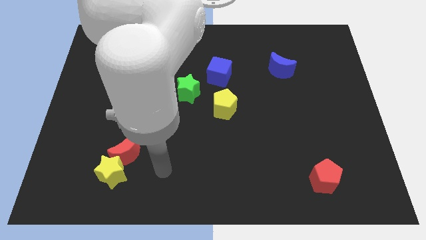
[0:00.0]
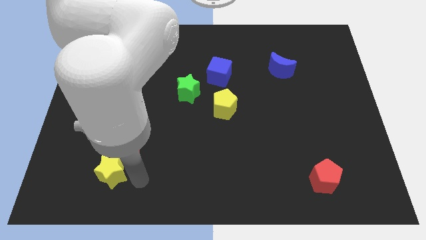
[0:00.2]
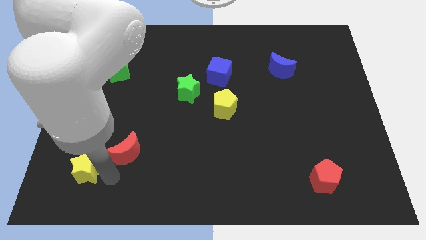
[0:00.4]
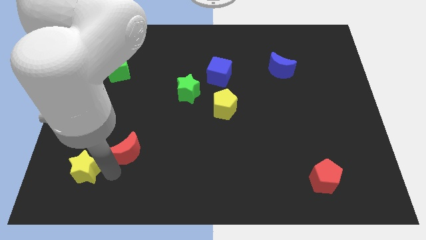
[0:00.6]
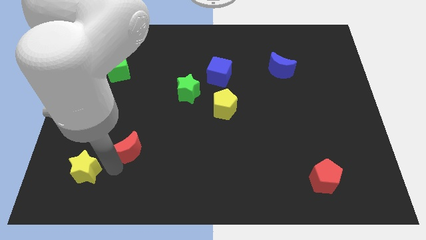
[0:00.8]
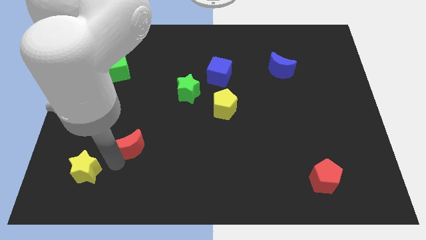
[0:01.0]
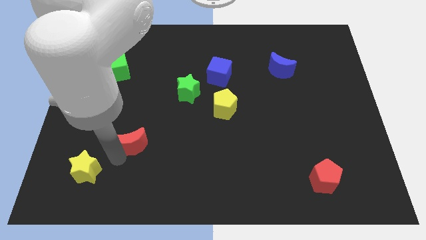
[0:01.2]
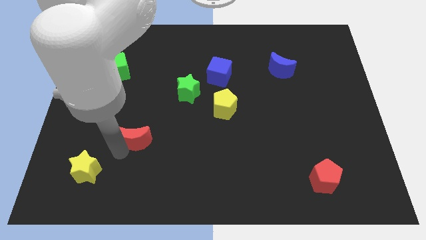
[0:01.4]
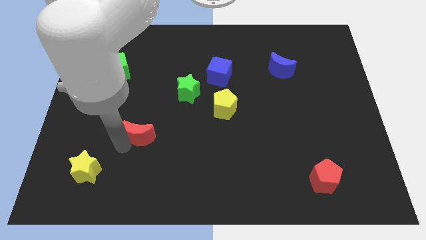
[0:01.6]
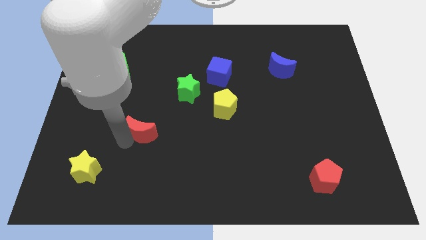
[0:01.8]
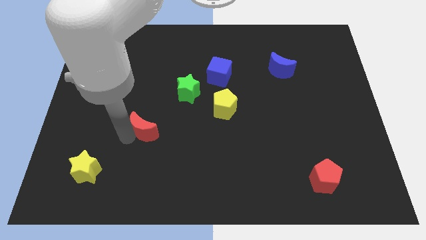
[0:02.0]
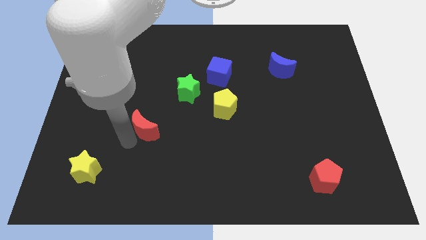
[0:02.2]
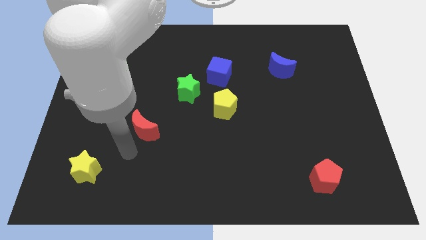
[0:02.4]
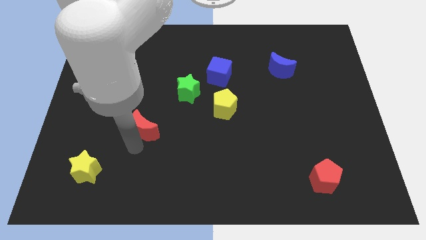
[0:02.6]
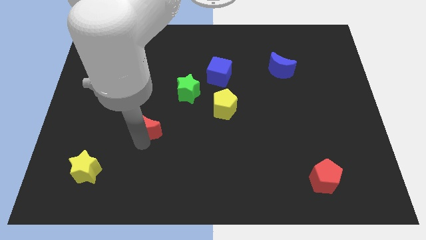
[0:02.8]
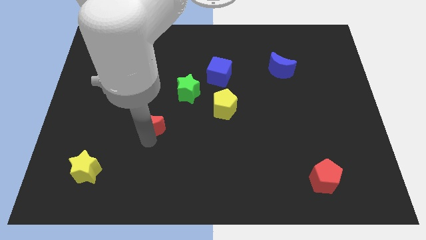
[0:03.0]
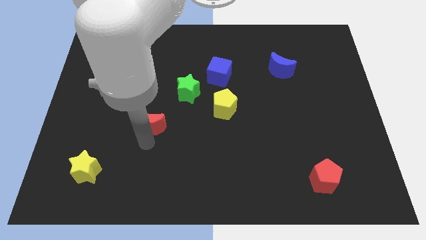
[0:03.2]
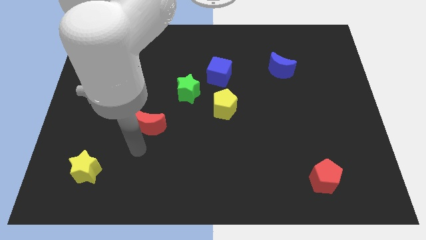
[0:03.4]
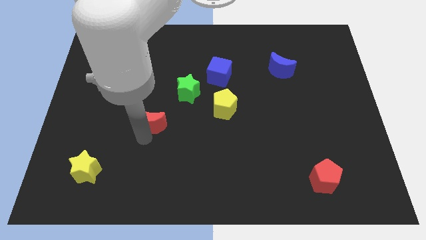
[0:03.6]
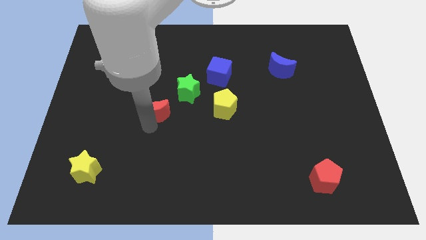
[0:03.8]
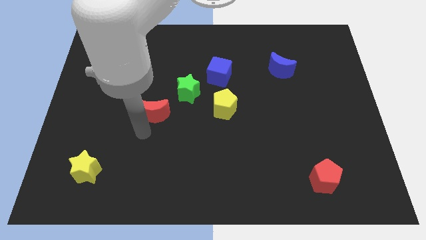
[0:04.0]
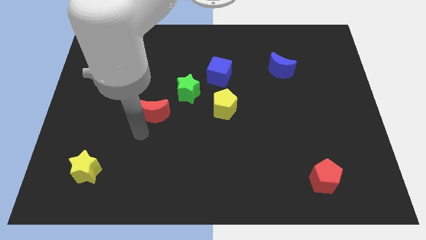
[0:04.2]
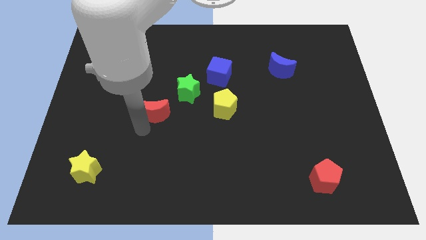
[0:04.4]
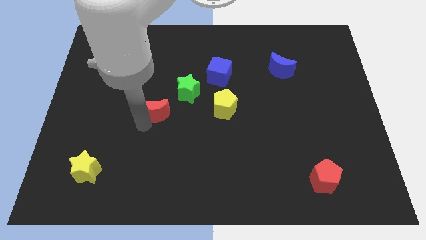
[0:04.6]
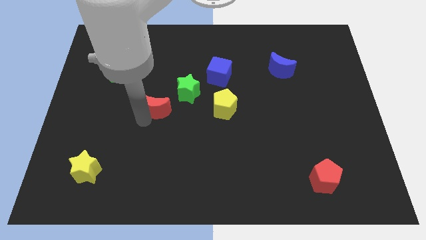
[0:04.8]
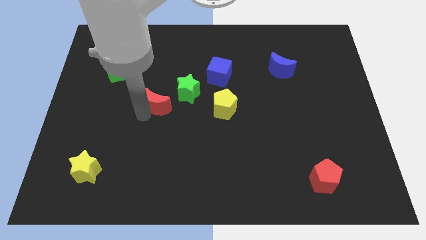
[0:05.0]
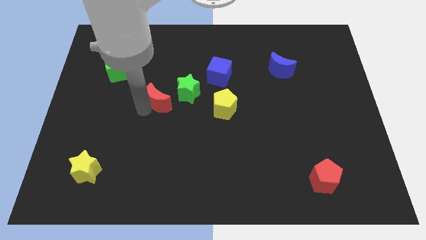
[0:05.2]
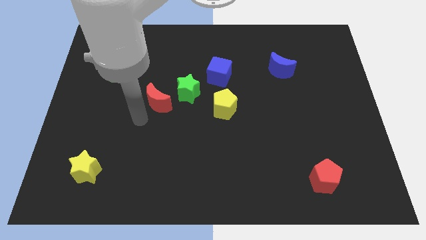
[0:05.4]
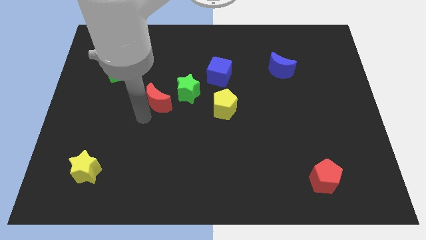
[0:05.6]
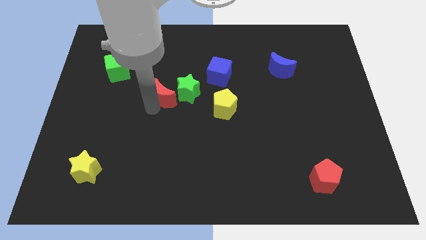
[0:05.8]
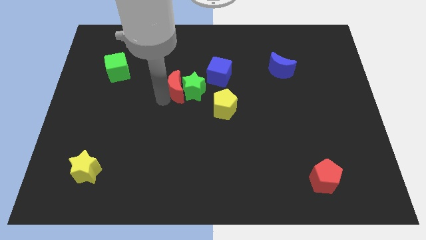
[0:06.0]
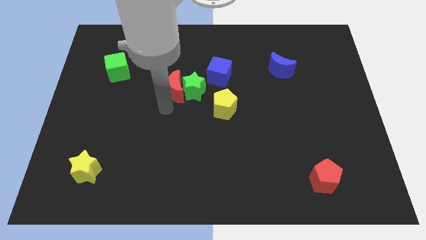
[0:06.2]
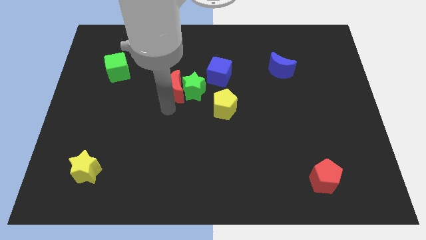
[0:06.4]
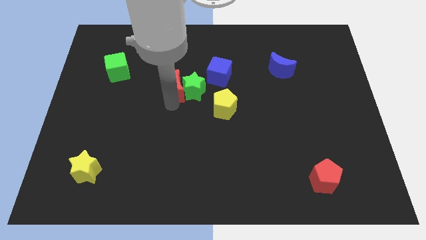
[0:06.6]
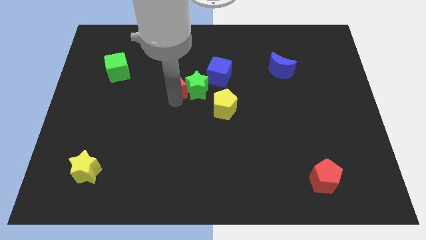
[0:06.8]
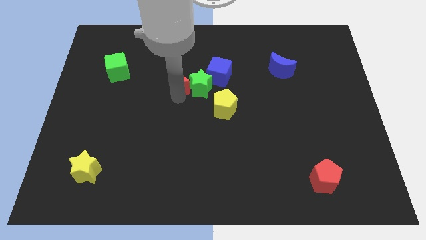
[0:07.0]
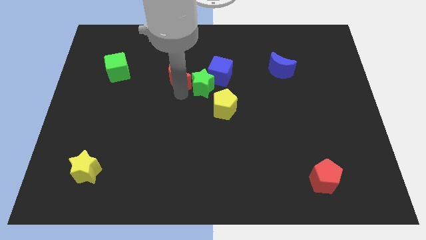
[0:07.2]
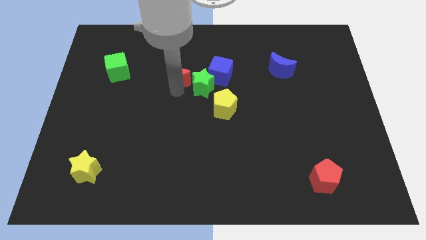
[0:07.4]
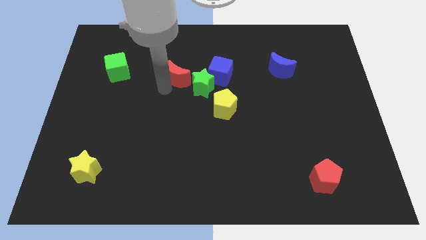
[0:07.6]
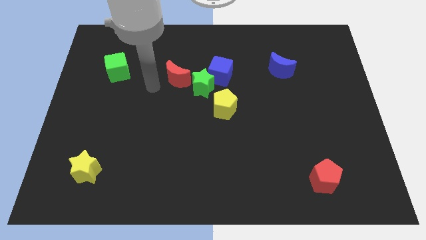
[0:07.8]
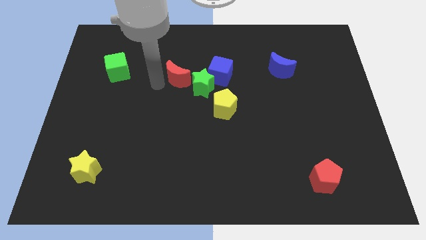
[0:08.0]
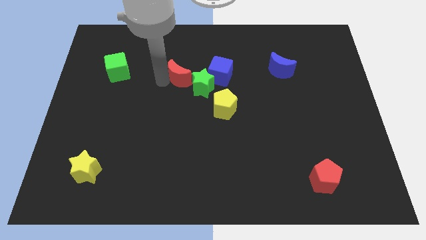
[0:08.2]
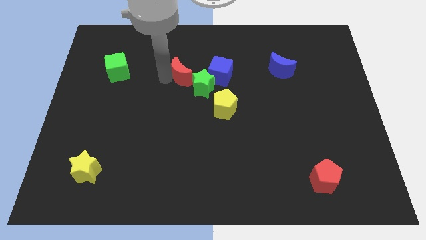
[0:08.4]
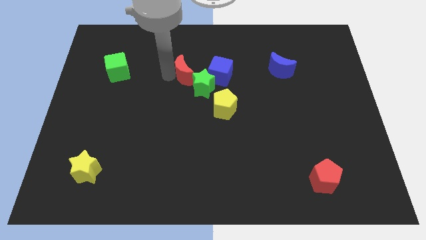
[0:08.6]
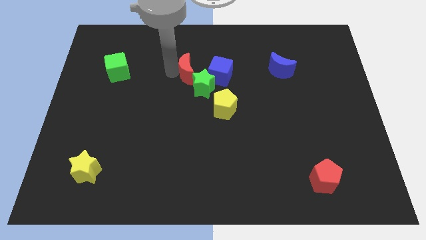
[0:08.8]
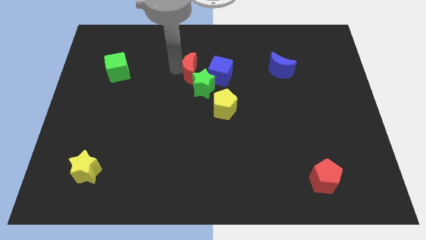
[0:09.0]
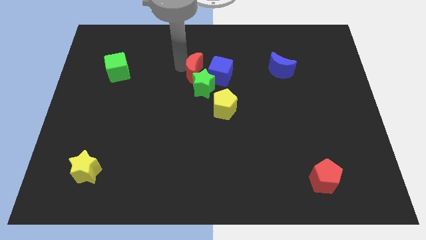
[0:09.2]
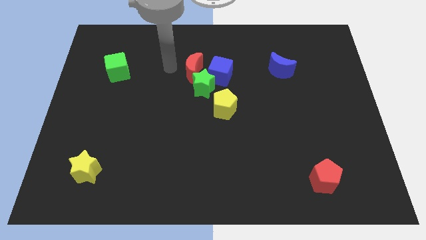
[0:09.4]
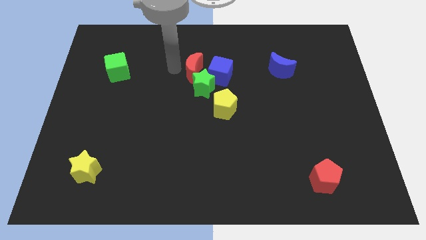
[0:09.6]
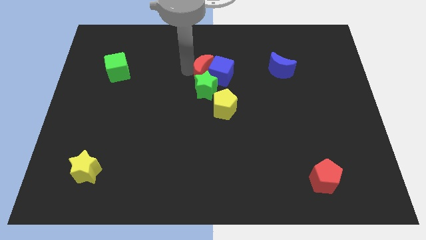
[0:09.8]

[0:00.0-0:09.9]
push the red moon next to the blue cube

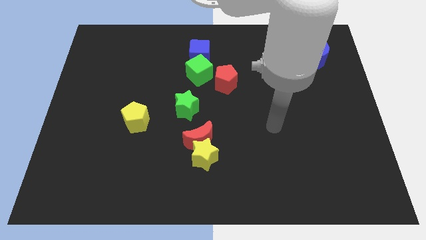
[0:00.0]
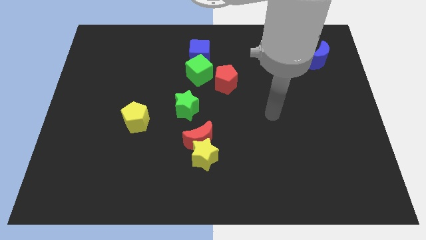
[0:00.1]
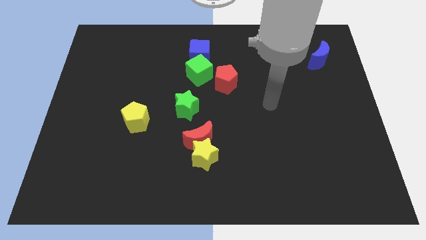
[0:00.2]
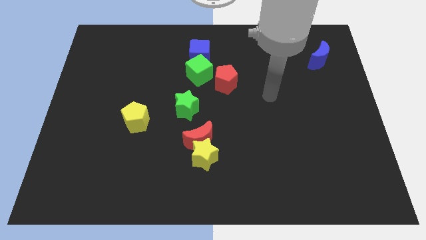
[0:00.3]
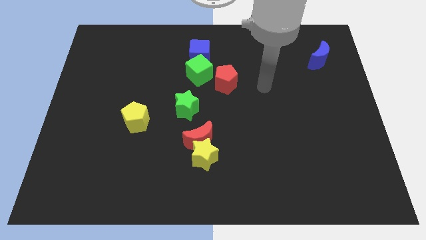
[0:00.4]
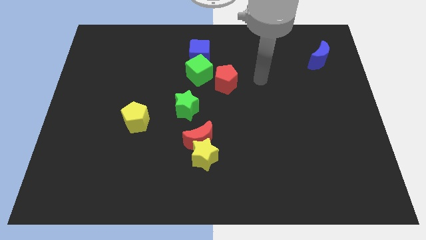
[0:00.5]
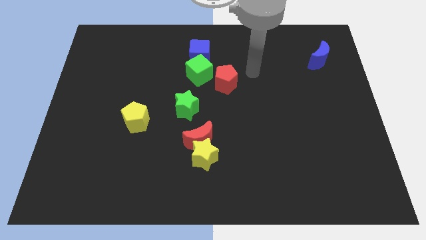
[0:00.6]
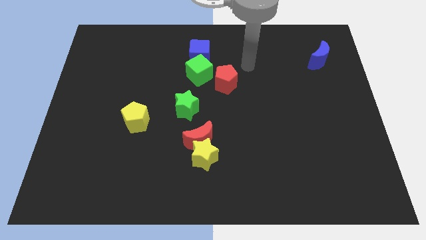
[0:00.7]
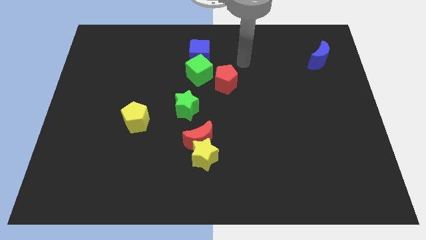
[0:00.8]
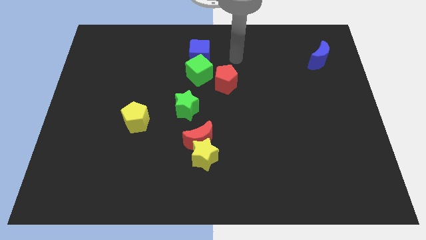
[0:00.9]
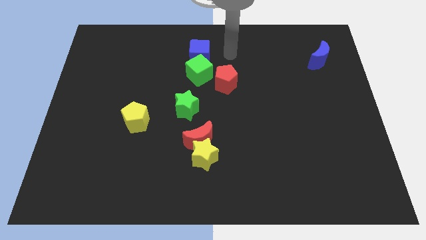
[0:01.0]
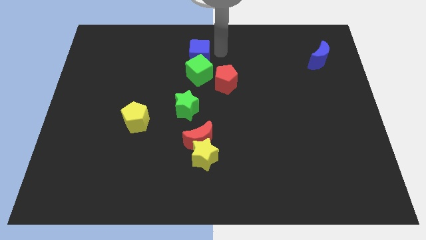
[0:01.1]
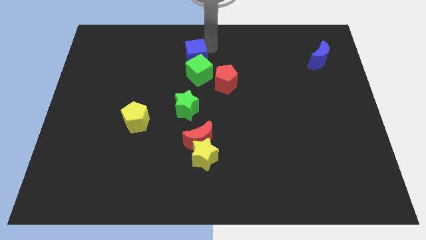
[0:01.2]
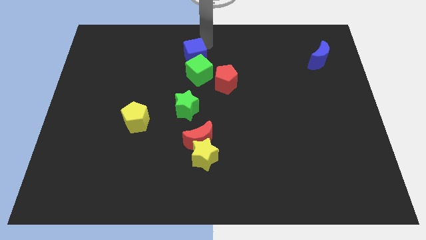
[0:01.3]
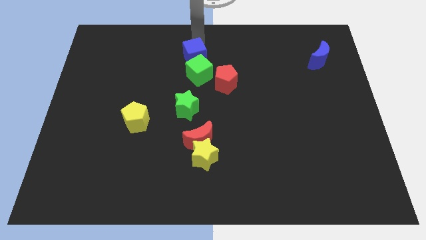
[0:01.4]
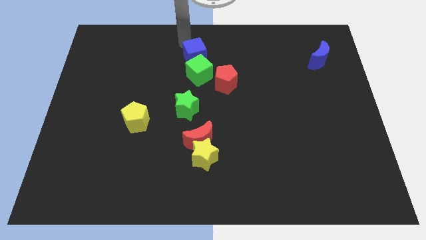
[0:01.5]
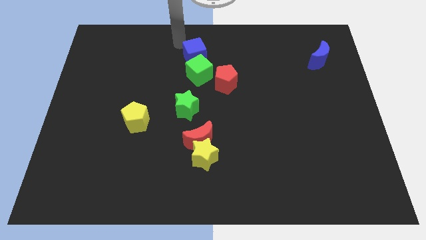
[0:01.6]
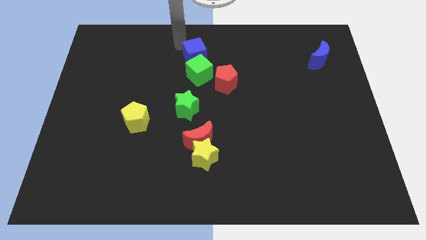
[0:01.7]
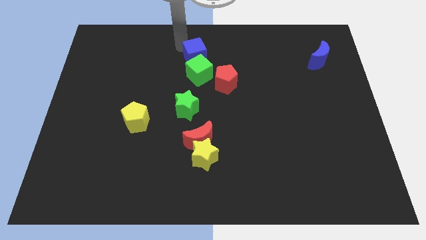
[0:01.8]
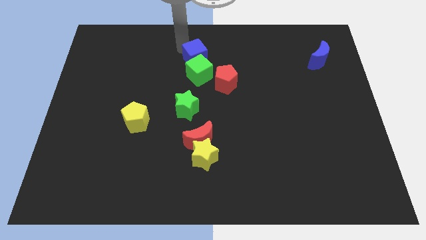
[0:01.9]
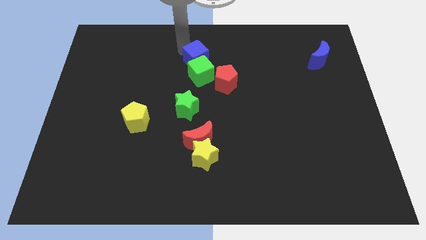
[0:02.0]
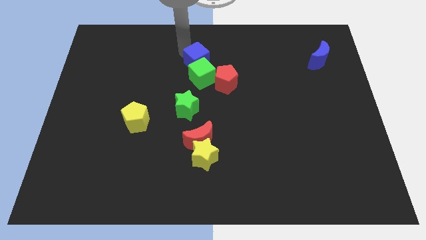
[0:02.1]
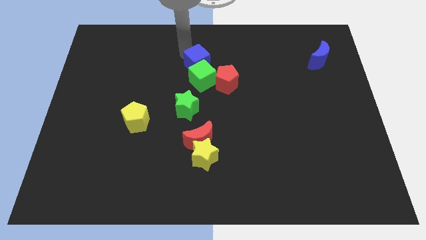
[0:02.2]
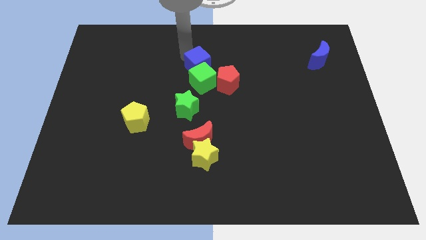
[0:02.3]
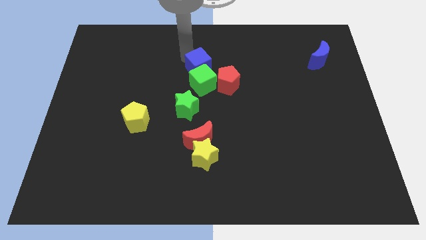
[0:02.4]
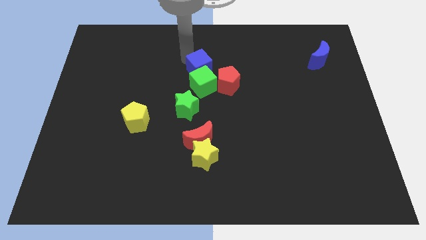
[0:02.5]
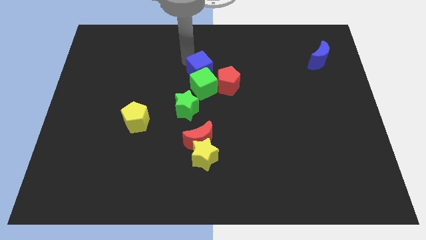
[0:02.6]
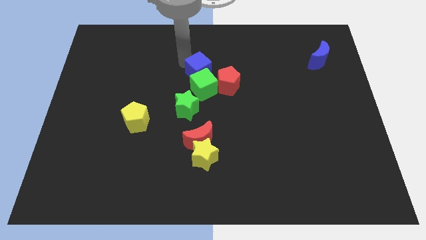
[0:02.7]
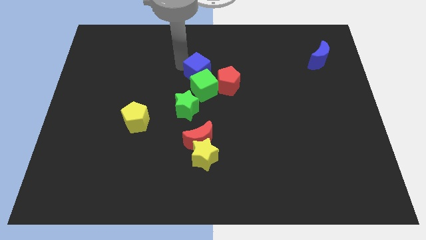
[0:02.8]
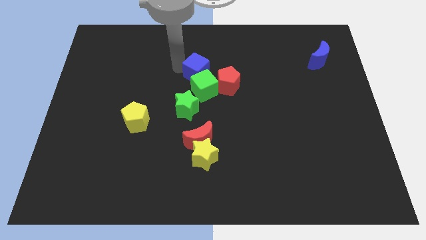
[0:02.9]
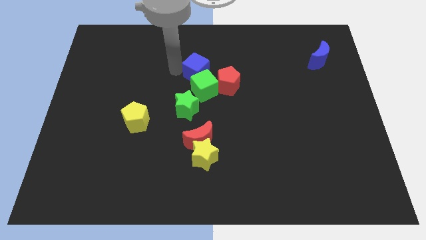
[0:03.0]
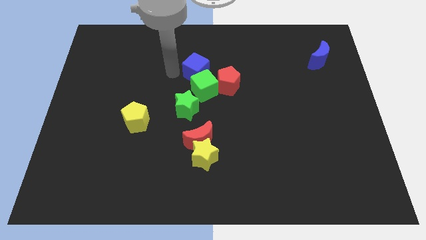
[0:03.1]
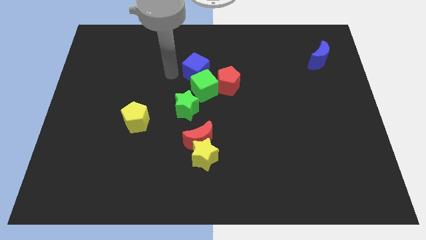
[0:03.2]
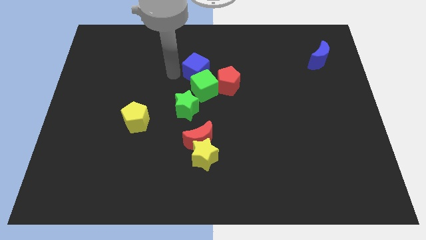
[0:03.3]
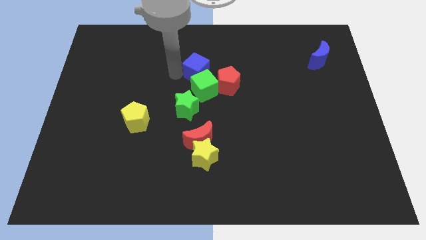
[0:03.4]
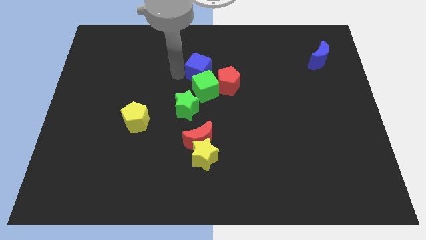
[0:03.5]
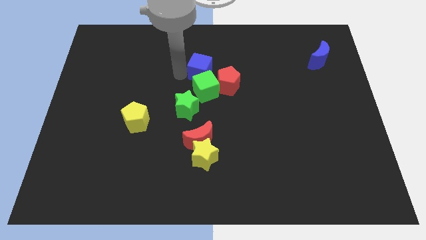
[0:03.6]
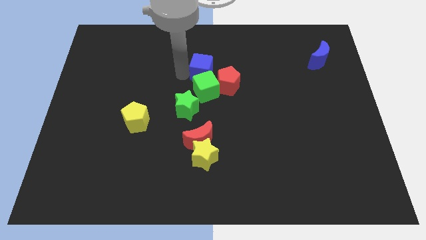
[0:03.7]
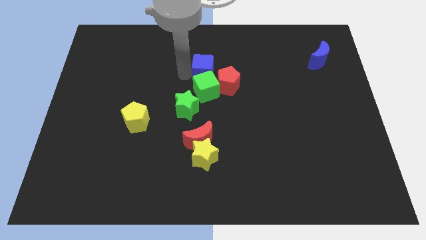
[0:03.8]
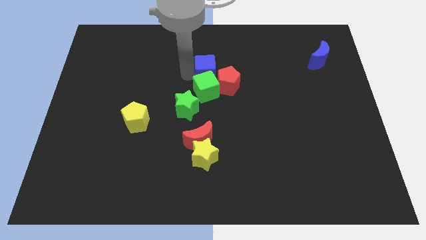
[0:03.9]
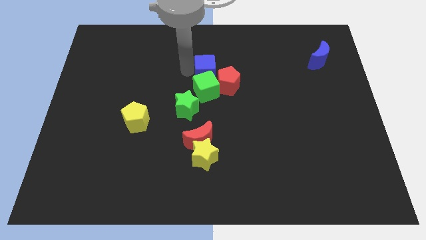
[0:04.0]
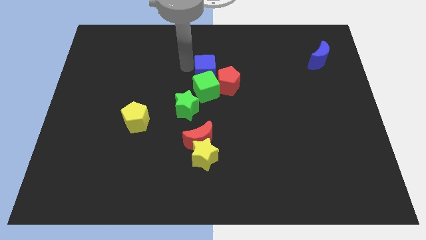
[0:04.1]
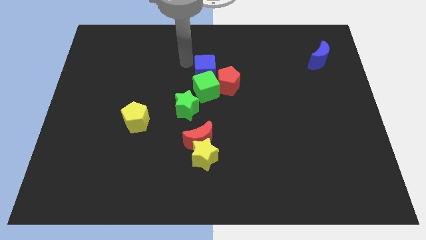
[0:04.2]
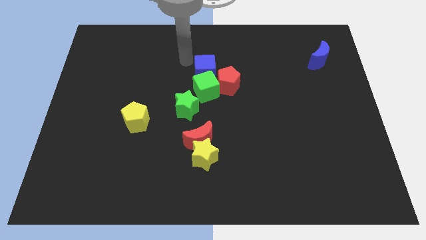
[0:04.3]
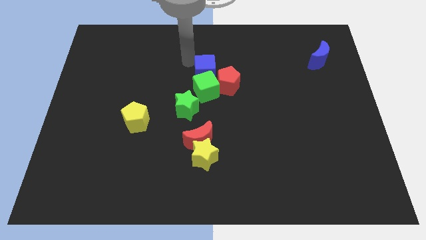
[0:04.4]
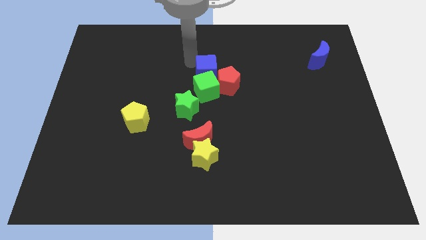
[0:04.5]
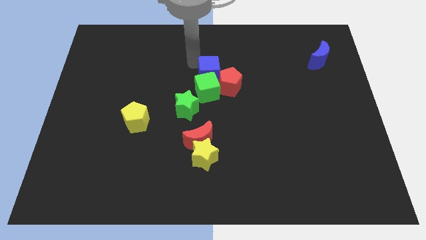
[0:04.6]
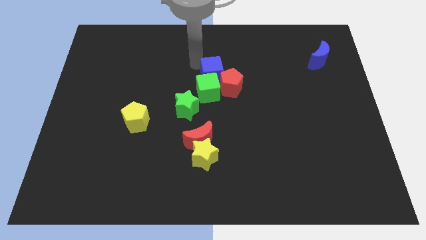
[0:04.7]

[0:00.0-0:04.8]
put the blue cube towards the red pentagon
